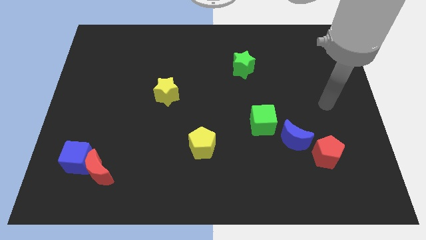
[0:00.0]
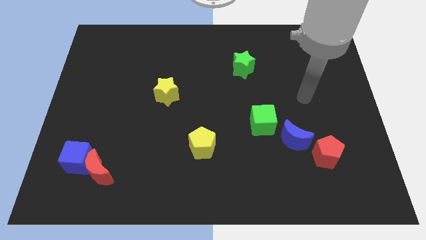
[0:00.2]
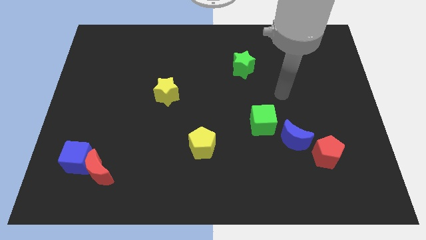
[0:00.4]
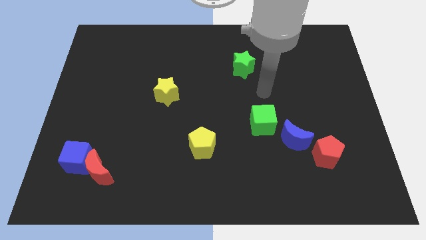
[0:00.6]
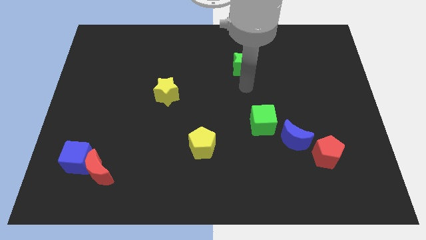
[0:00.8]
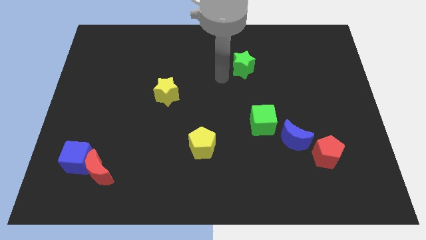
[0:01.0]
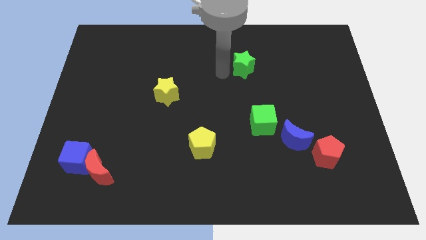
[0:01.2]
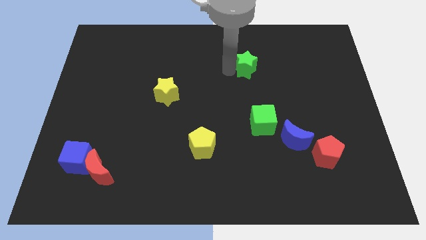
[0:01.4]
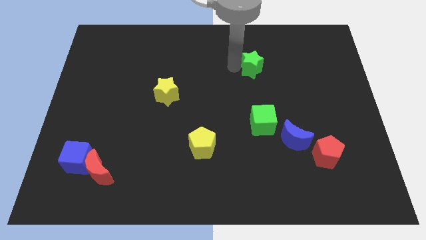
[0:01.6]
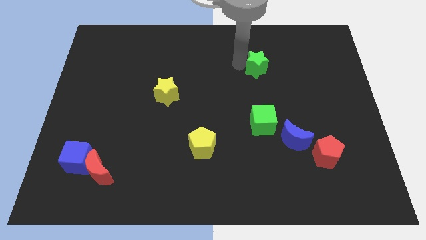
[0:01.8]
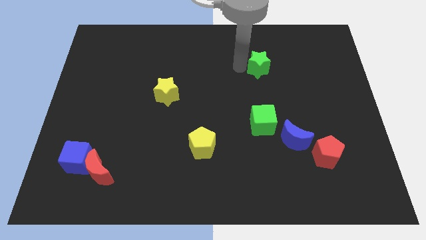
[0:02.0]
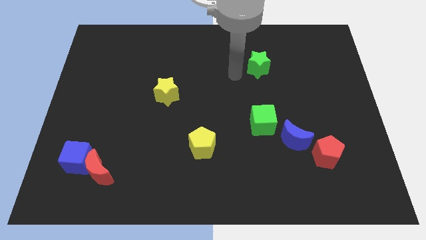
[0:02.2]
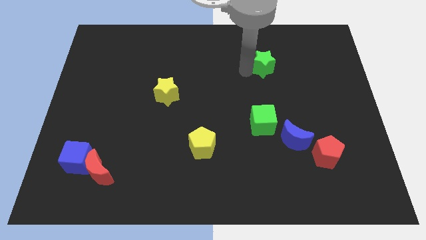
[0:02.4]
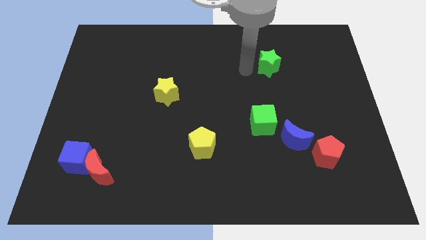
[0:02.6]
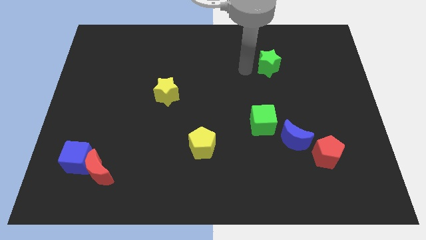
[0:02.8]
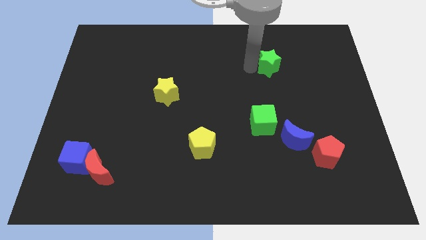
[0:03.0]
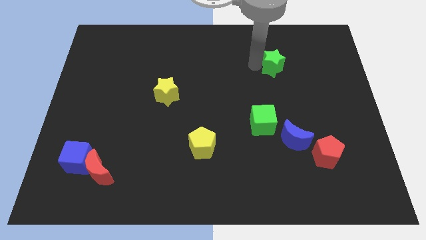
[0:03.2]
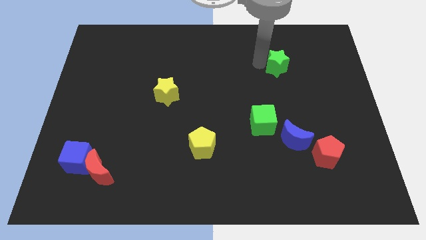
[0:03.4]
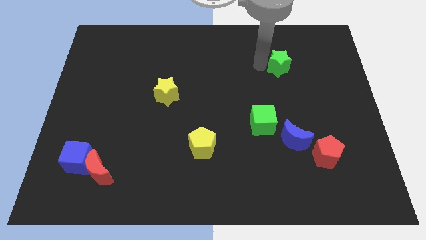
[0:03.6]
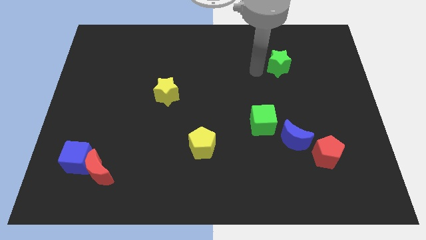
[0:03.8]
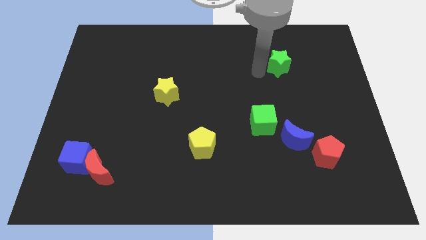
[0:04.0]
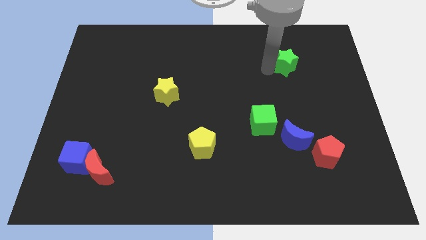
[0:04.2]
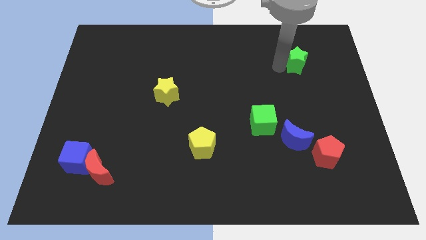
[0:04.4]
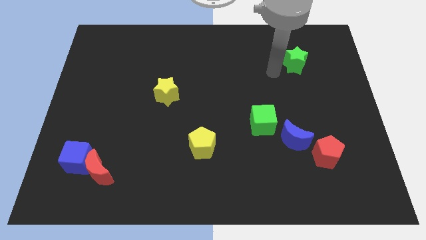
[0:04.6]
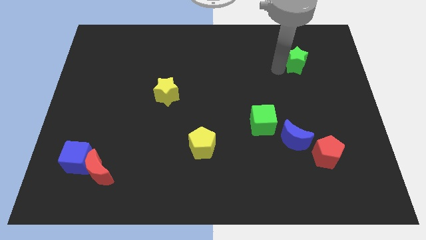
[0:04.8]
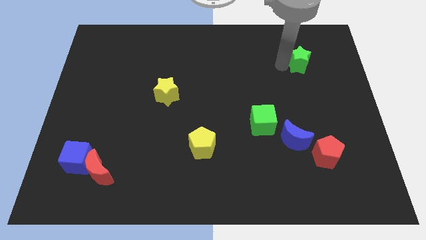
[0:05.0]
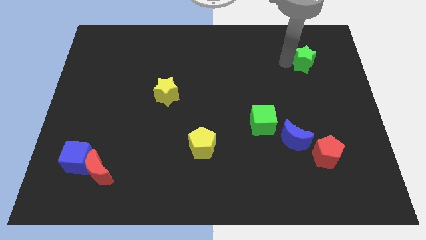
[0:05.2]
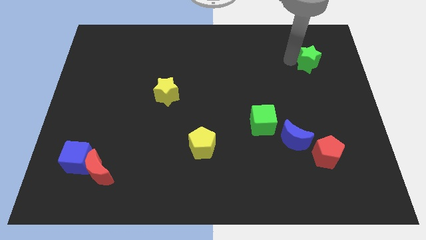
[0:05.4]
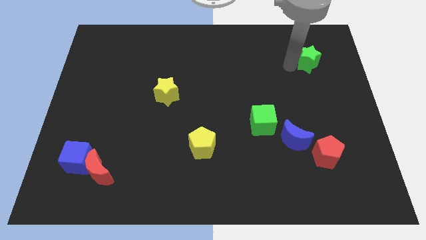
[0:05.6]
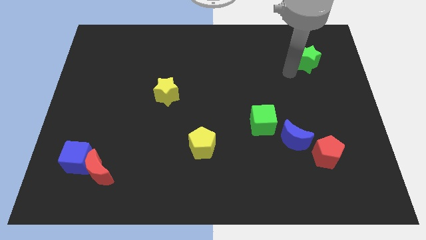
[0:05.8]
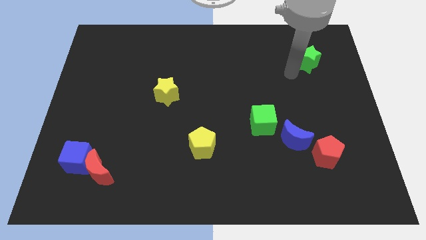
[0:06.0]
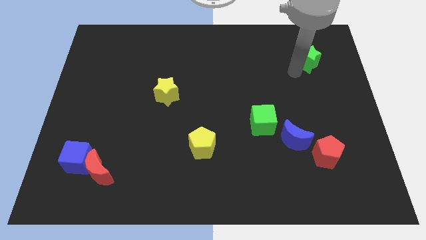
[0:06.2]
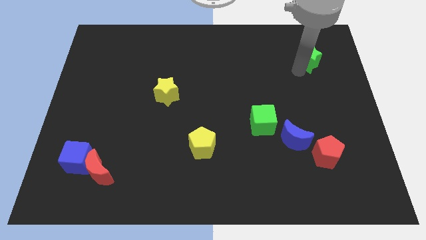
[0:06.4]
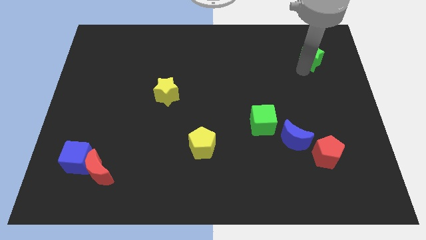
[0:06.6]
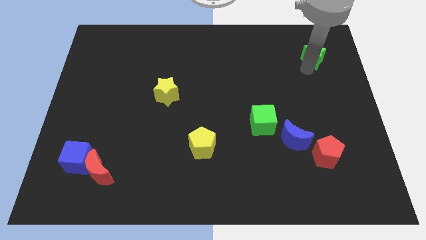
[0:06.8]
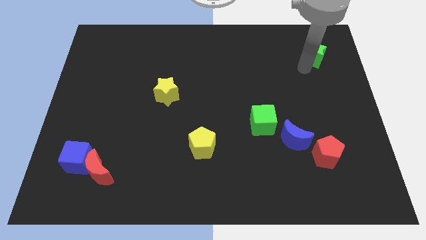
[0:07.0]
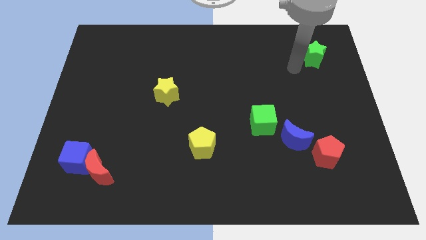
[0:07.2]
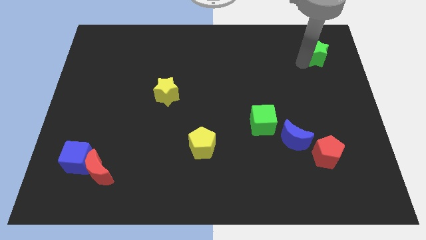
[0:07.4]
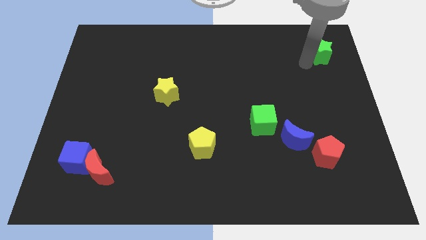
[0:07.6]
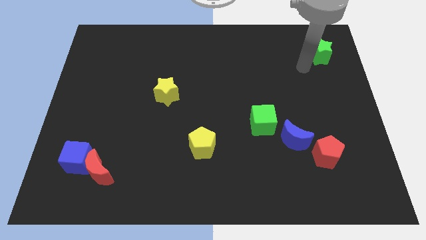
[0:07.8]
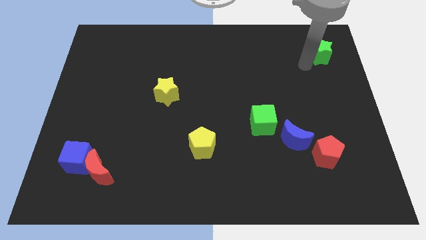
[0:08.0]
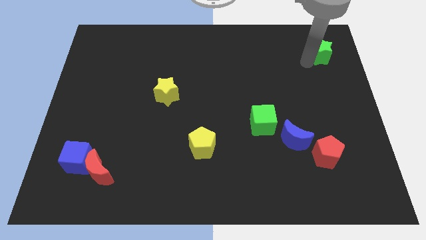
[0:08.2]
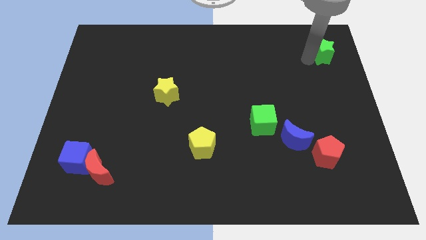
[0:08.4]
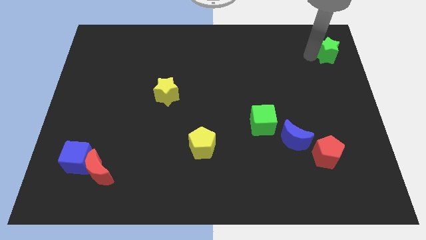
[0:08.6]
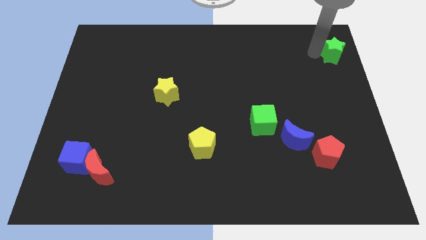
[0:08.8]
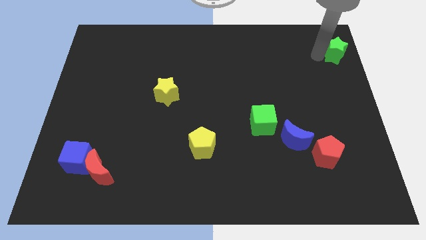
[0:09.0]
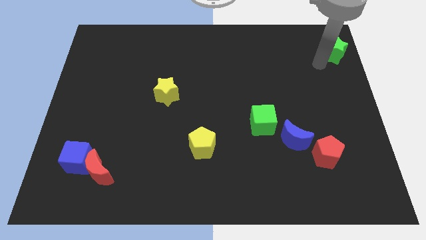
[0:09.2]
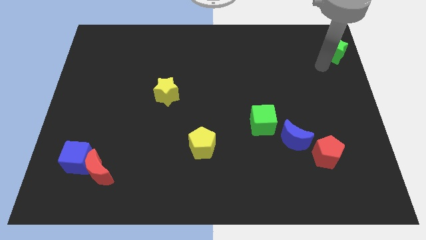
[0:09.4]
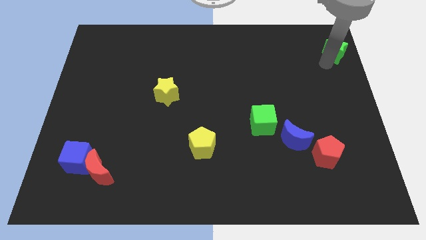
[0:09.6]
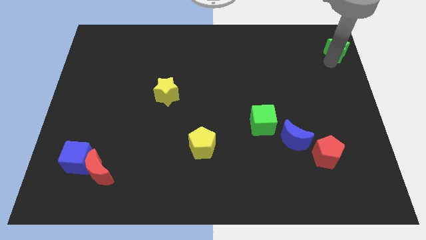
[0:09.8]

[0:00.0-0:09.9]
put the green star to the top right of the board

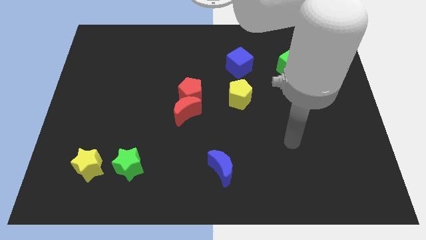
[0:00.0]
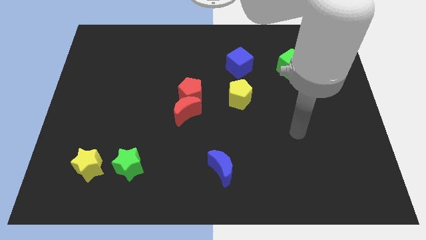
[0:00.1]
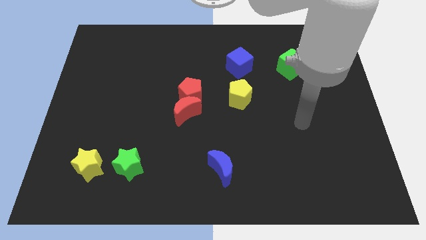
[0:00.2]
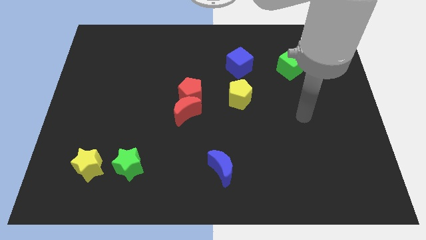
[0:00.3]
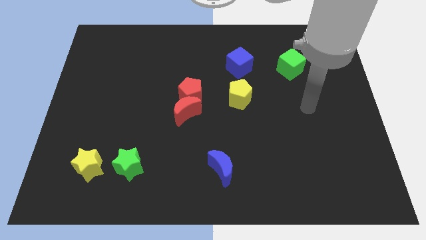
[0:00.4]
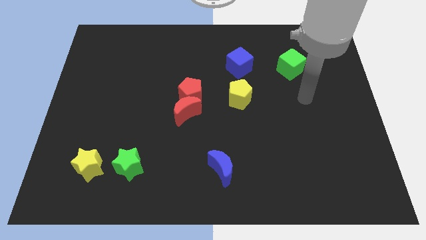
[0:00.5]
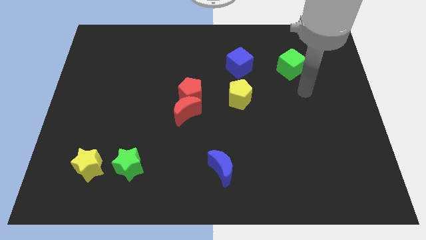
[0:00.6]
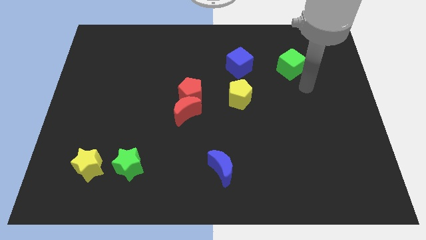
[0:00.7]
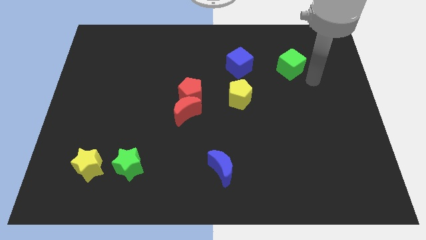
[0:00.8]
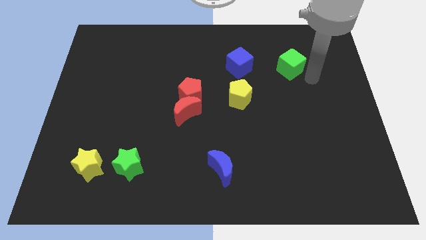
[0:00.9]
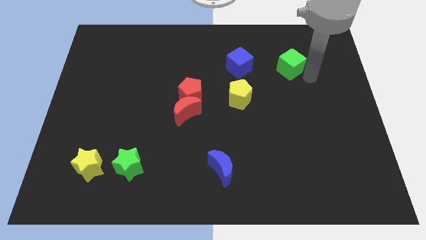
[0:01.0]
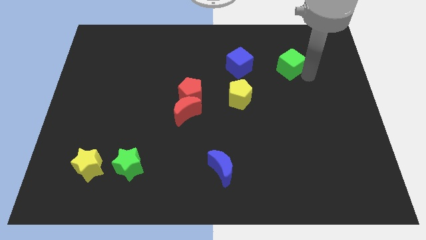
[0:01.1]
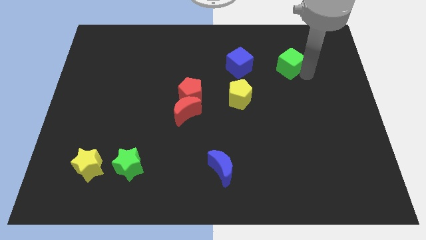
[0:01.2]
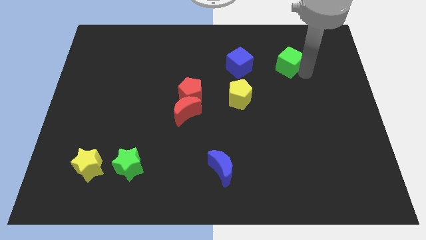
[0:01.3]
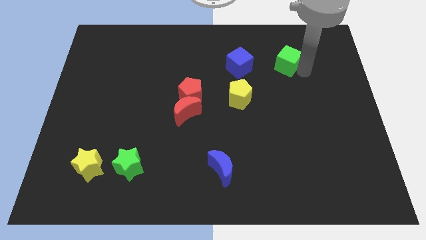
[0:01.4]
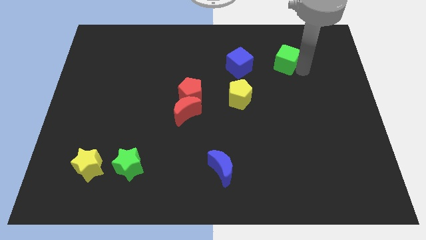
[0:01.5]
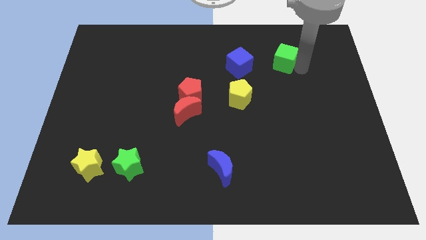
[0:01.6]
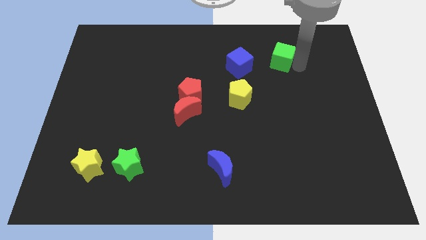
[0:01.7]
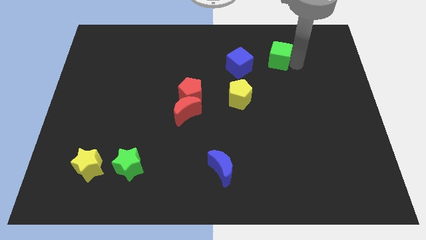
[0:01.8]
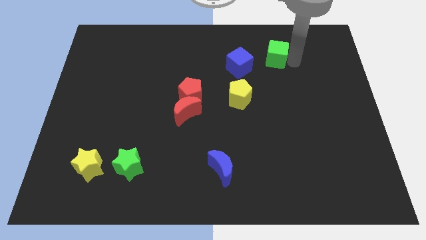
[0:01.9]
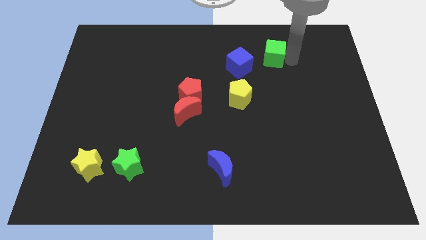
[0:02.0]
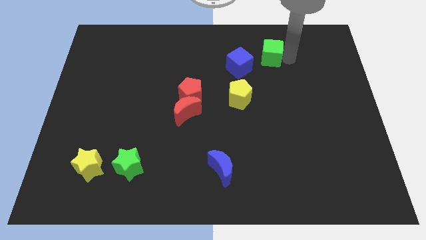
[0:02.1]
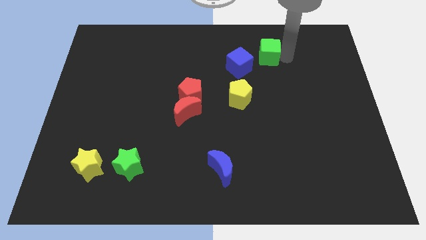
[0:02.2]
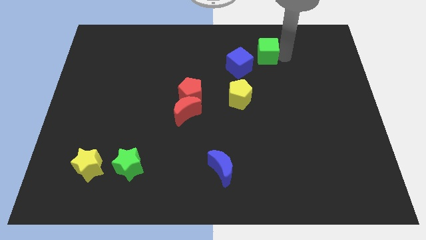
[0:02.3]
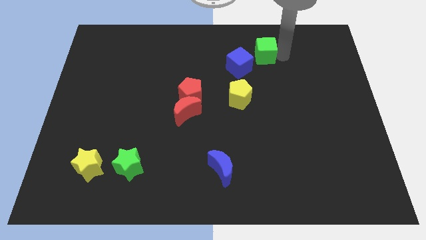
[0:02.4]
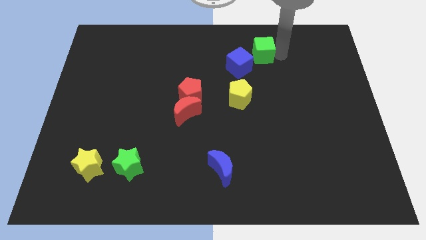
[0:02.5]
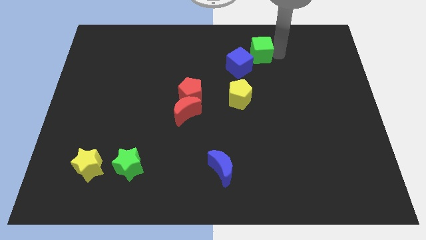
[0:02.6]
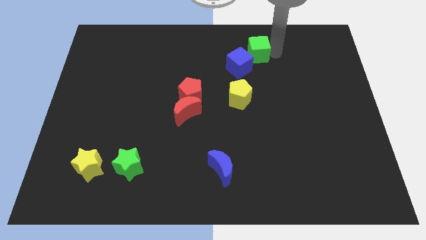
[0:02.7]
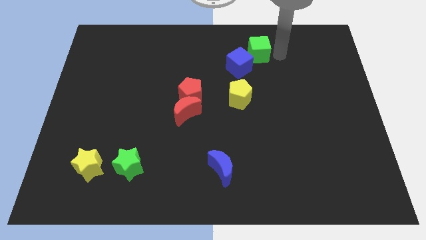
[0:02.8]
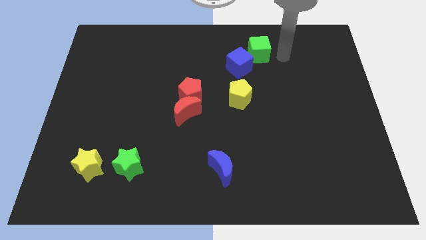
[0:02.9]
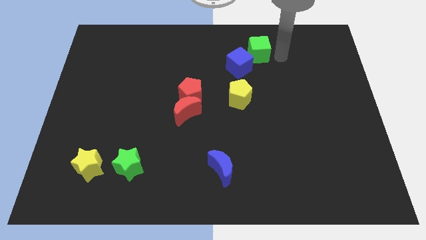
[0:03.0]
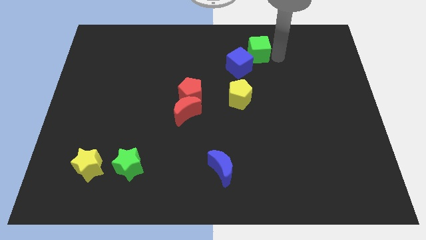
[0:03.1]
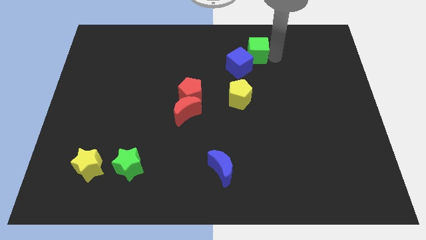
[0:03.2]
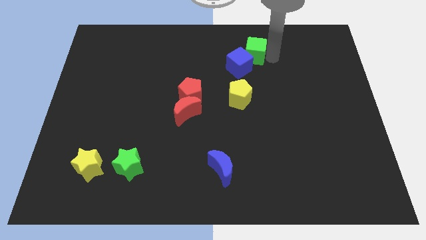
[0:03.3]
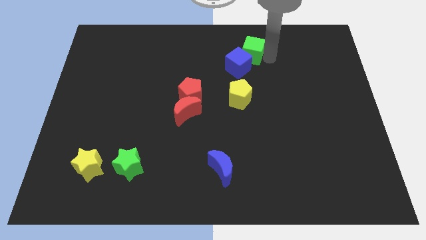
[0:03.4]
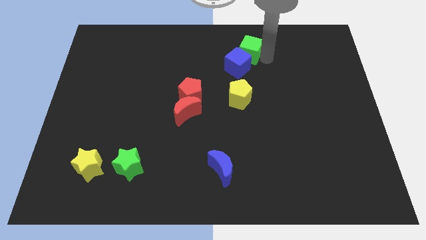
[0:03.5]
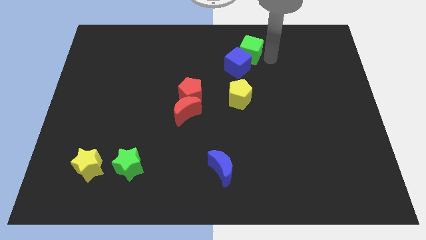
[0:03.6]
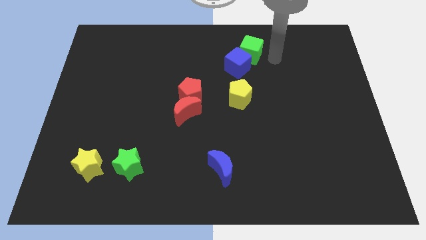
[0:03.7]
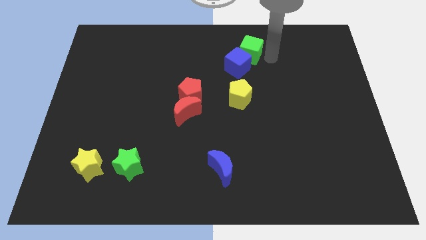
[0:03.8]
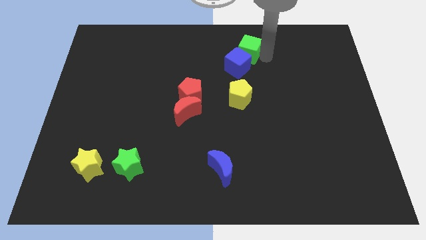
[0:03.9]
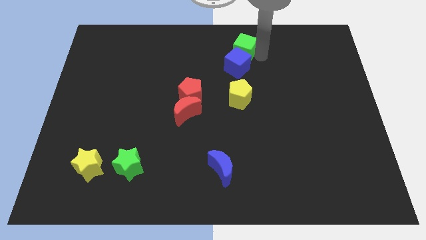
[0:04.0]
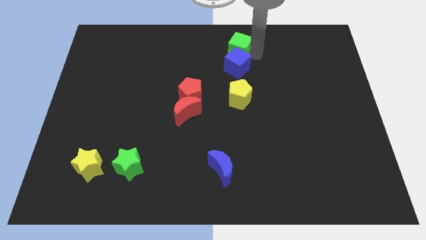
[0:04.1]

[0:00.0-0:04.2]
slide the green cube to the top side
